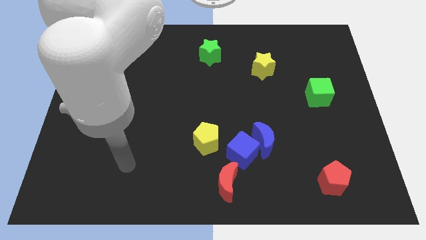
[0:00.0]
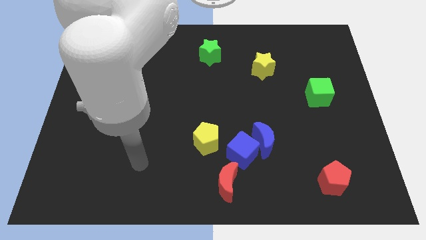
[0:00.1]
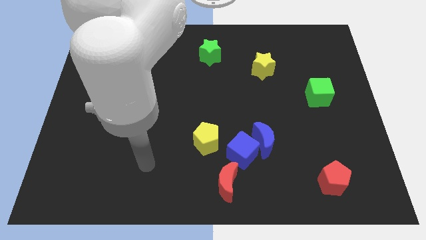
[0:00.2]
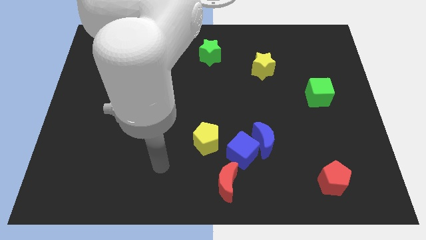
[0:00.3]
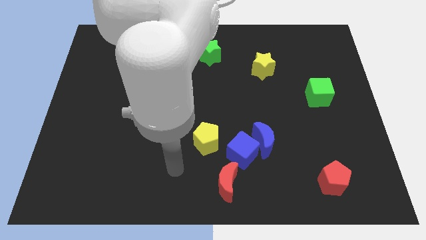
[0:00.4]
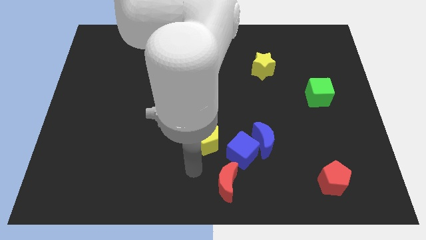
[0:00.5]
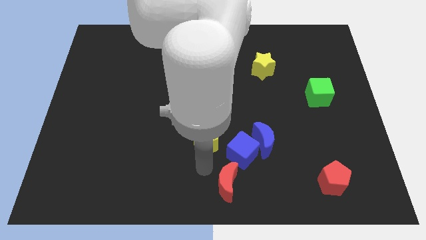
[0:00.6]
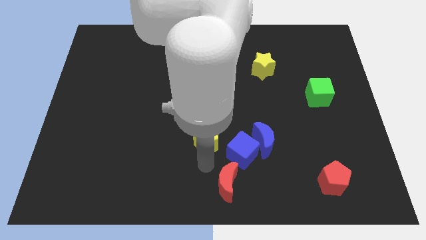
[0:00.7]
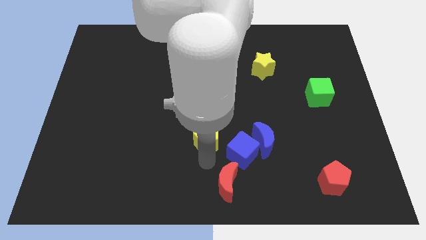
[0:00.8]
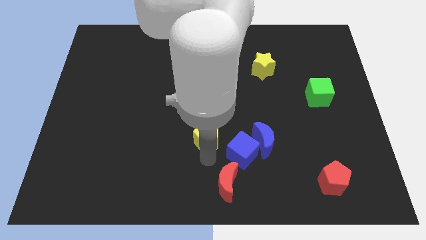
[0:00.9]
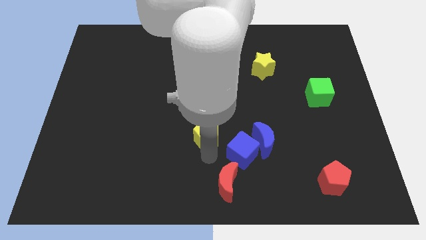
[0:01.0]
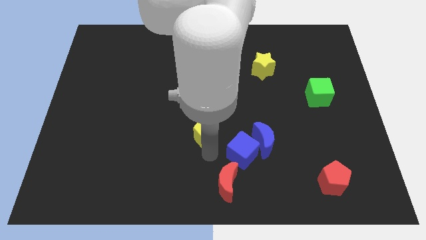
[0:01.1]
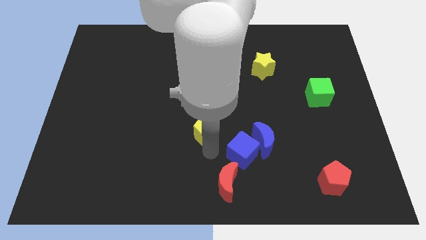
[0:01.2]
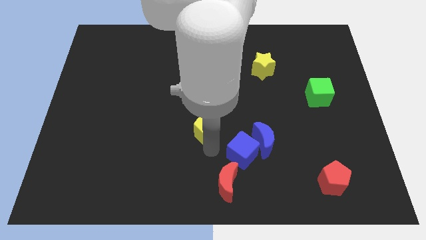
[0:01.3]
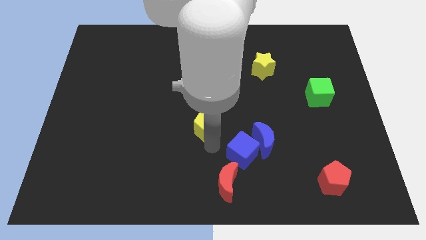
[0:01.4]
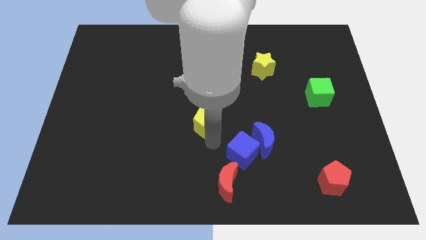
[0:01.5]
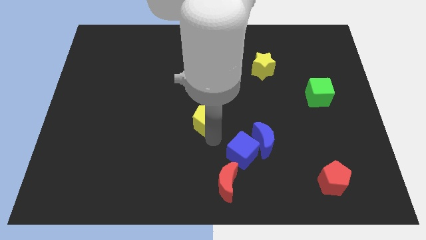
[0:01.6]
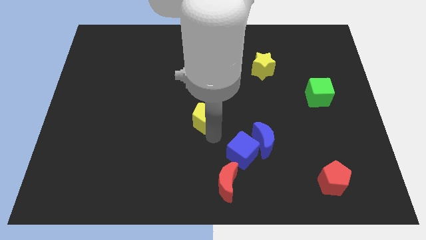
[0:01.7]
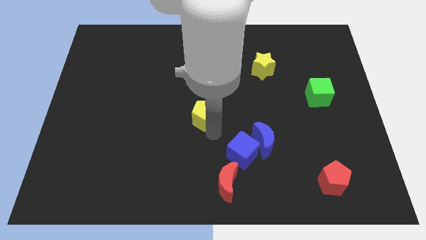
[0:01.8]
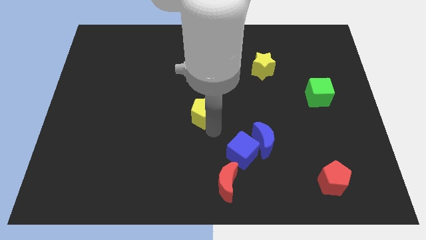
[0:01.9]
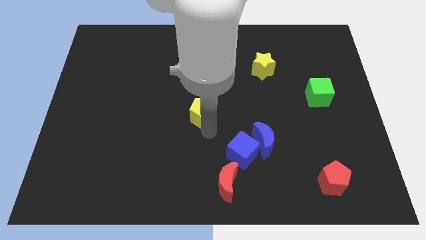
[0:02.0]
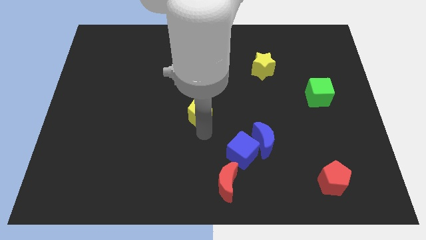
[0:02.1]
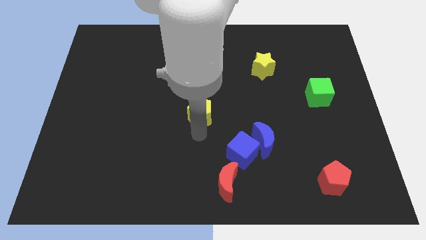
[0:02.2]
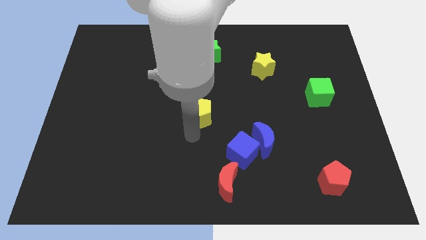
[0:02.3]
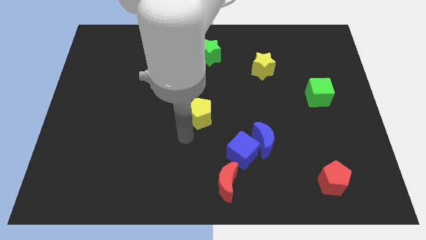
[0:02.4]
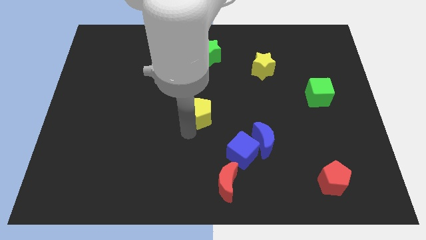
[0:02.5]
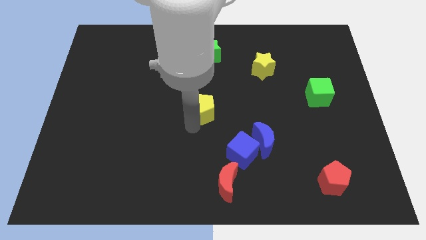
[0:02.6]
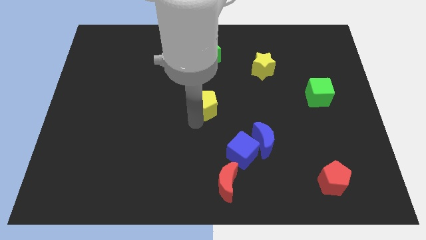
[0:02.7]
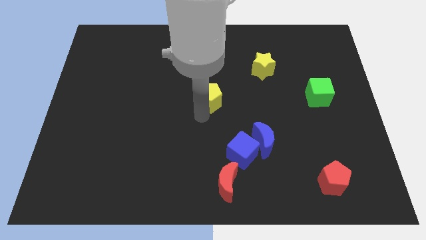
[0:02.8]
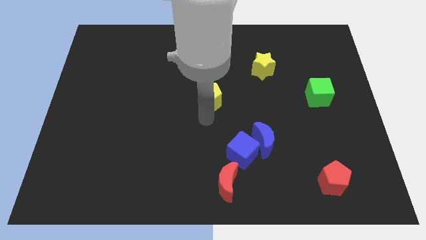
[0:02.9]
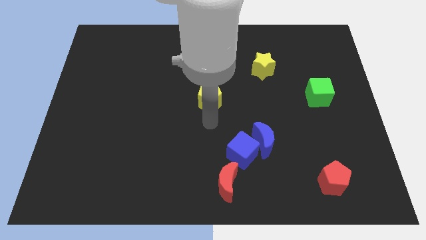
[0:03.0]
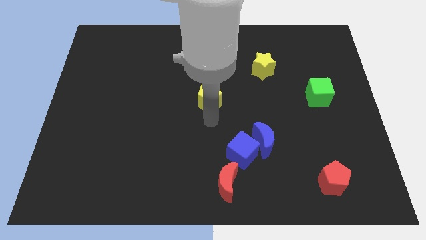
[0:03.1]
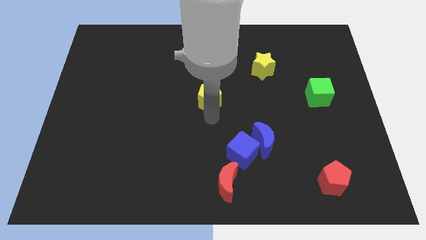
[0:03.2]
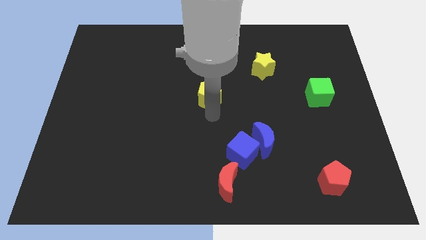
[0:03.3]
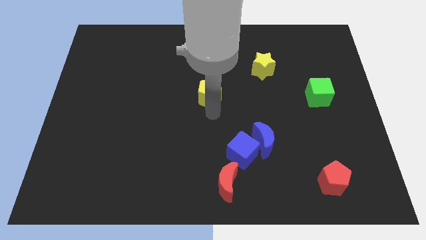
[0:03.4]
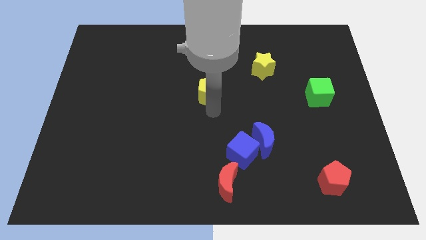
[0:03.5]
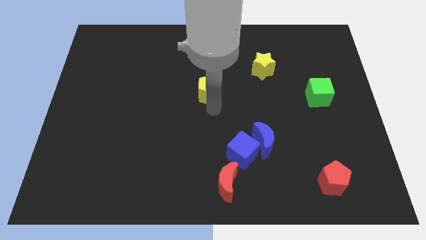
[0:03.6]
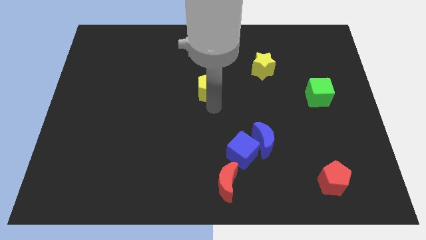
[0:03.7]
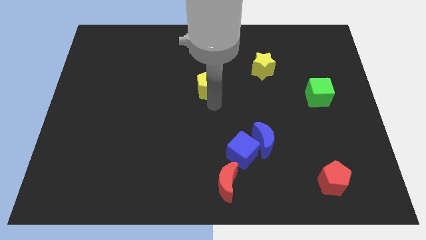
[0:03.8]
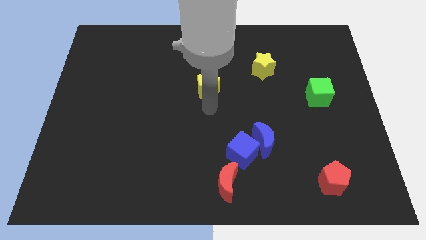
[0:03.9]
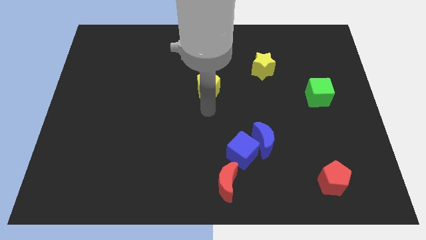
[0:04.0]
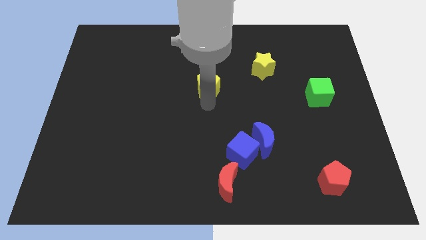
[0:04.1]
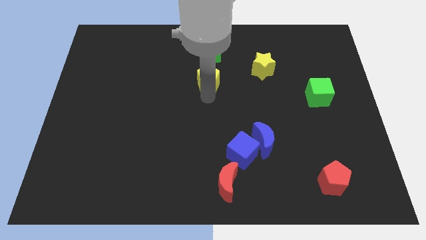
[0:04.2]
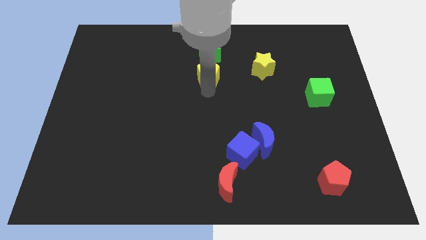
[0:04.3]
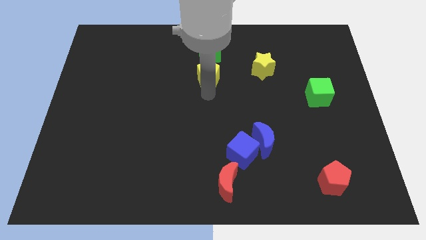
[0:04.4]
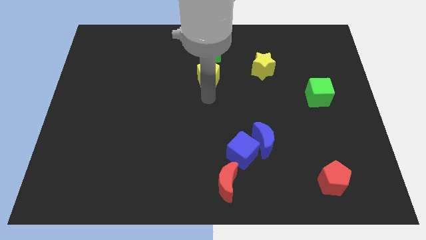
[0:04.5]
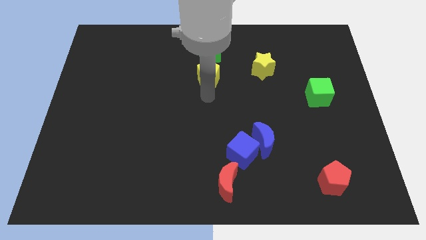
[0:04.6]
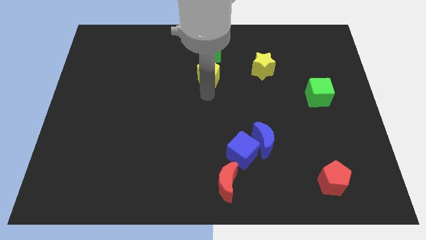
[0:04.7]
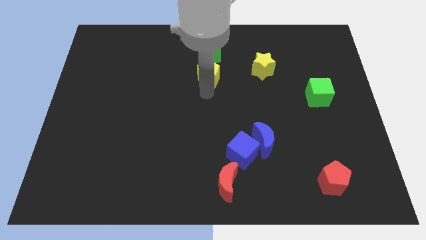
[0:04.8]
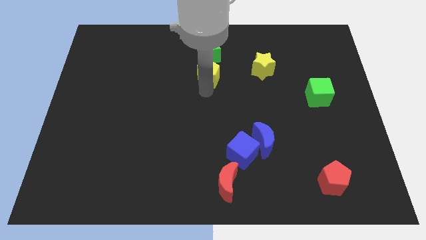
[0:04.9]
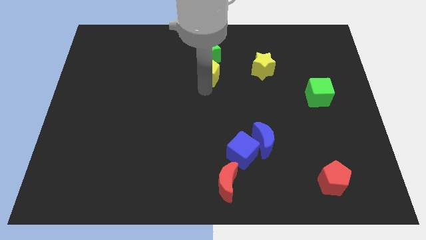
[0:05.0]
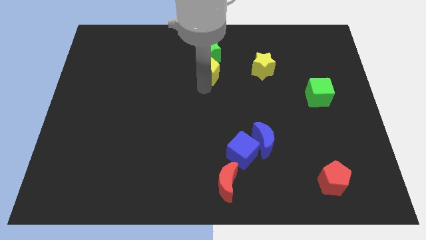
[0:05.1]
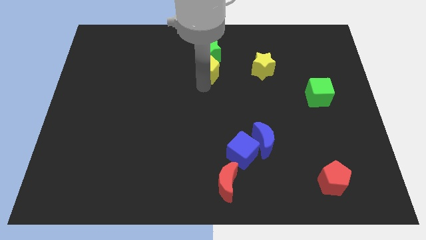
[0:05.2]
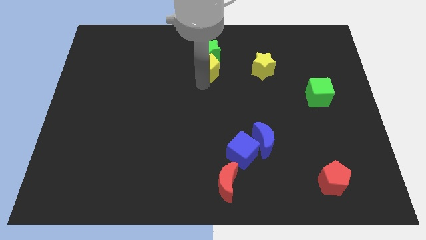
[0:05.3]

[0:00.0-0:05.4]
move the yellow pentagon towards the green star

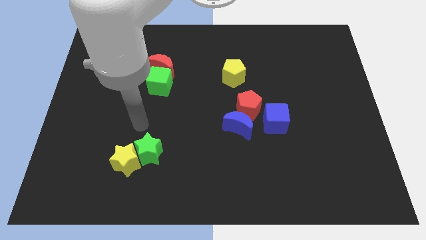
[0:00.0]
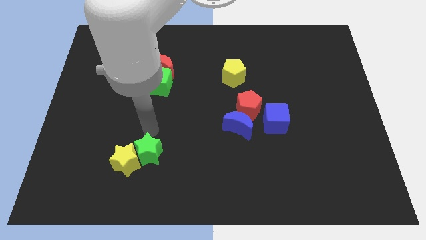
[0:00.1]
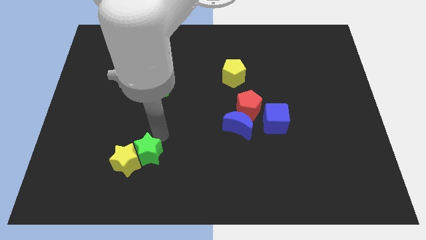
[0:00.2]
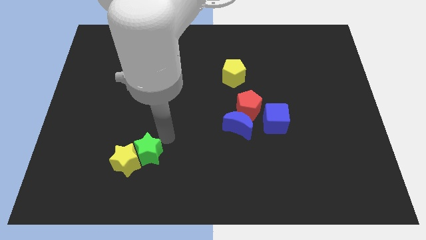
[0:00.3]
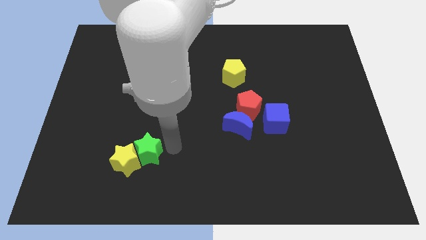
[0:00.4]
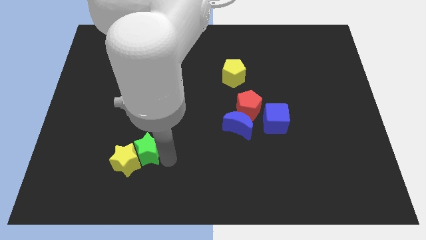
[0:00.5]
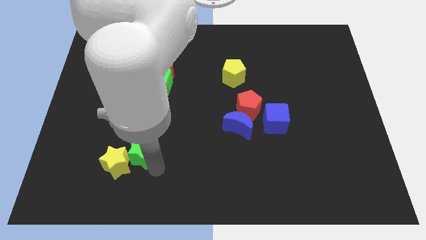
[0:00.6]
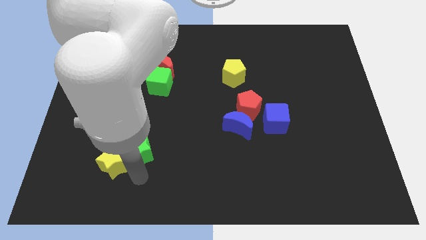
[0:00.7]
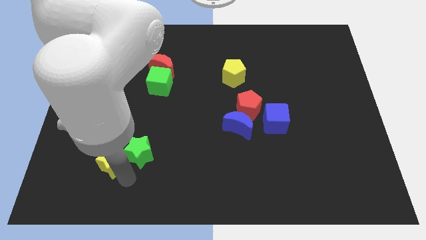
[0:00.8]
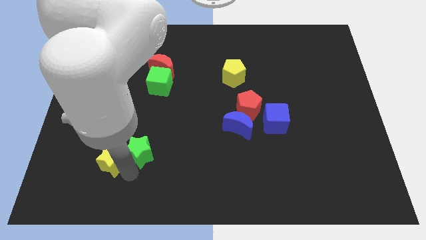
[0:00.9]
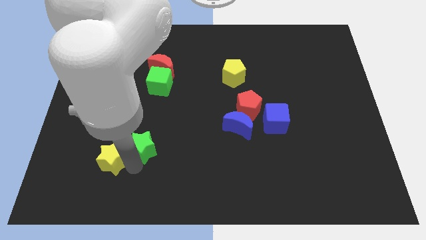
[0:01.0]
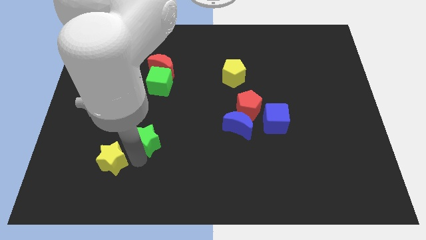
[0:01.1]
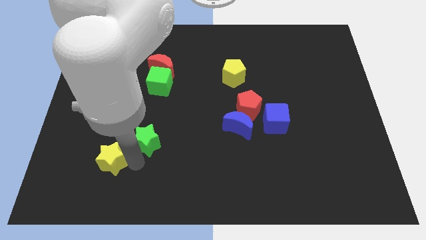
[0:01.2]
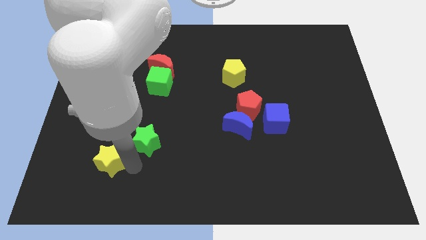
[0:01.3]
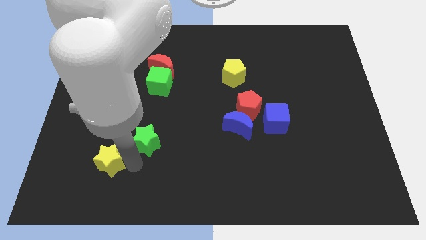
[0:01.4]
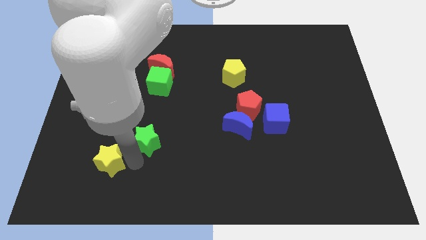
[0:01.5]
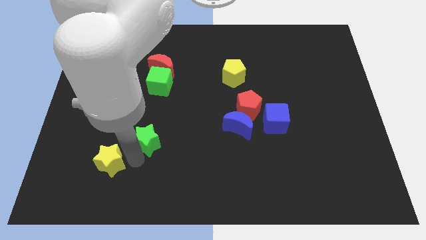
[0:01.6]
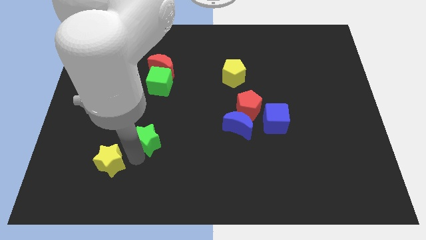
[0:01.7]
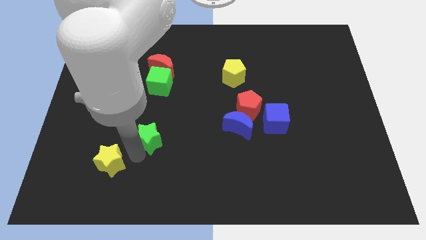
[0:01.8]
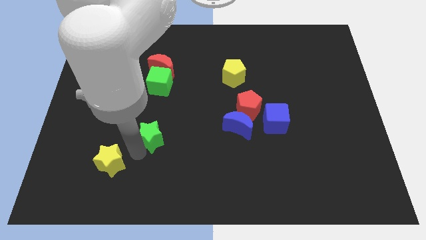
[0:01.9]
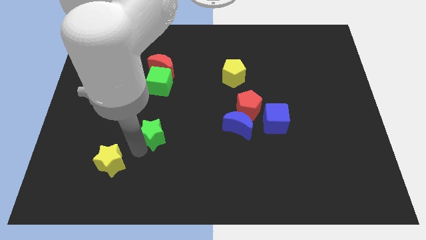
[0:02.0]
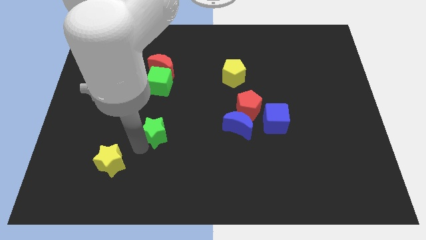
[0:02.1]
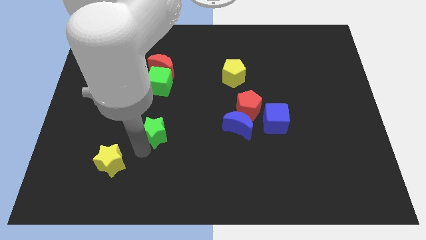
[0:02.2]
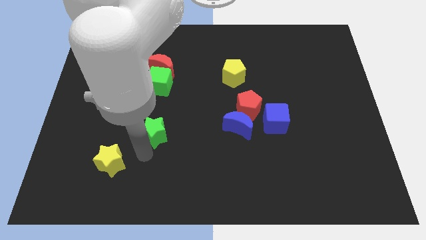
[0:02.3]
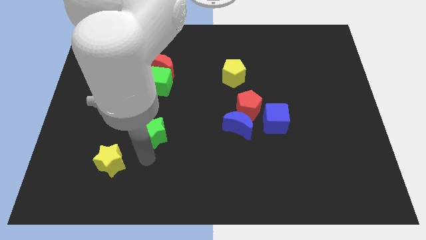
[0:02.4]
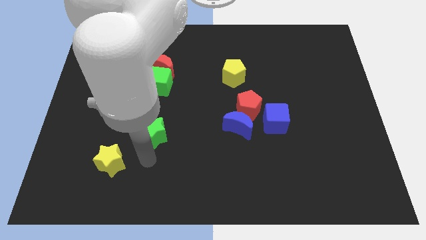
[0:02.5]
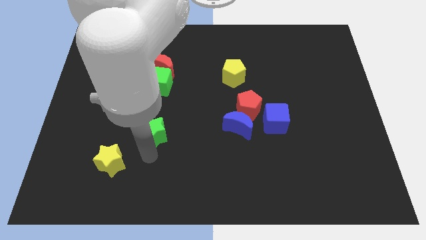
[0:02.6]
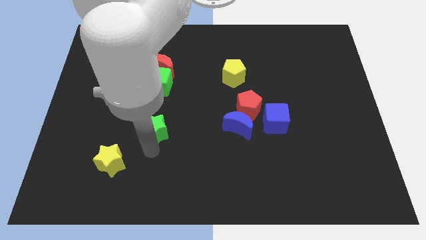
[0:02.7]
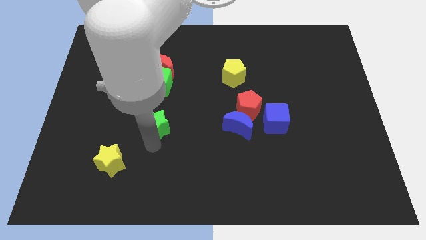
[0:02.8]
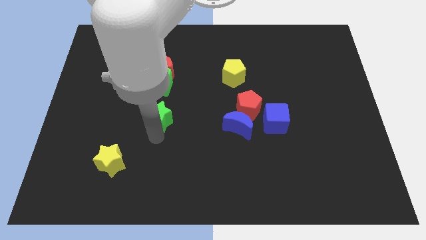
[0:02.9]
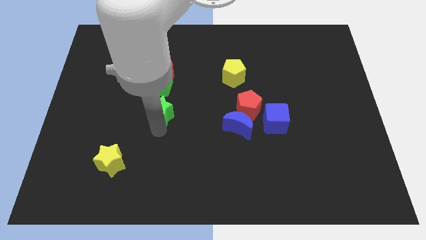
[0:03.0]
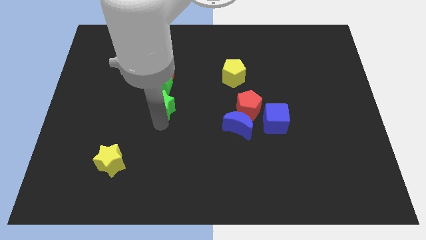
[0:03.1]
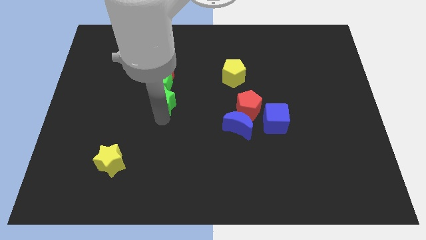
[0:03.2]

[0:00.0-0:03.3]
slide the green star next to the green cube
